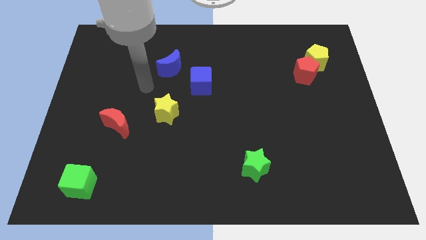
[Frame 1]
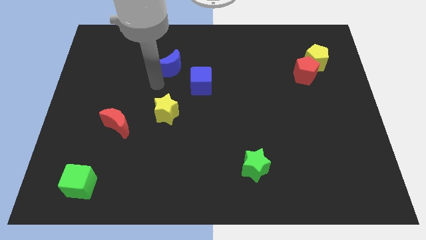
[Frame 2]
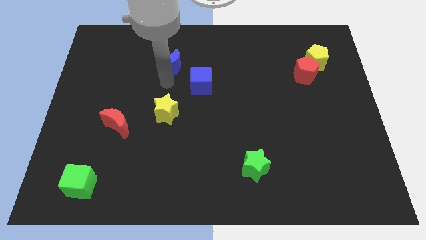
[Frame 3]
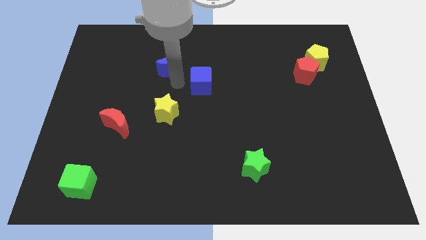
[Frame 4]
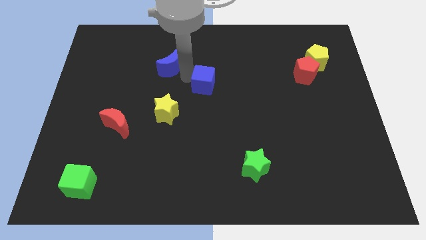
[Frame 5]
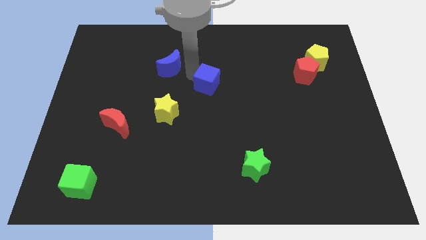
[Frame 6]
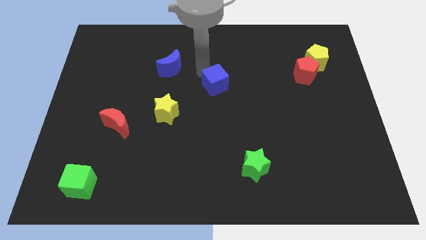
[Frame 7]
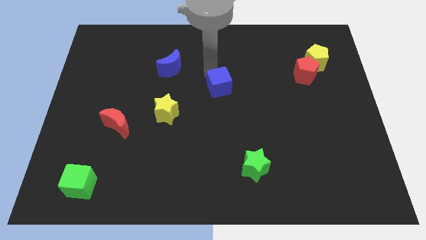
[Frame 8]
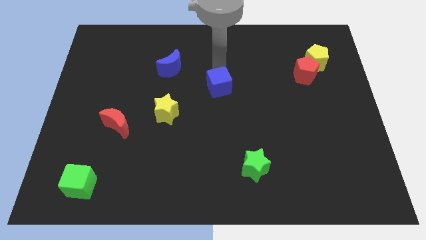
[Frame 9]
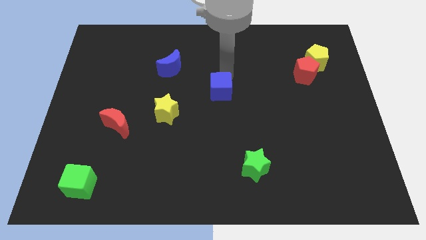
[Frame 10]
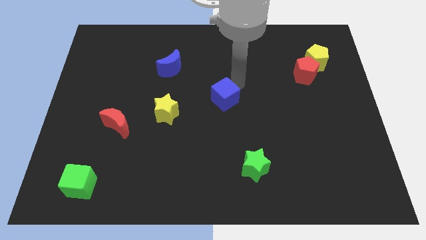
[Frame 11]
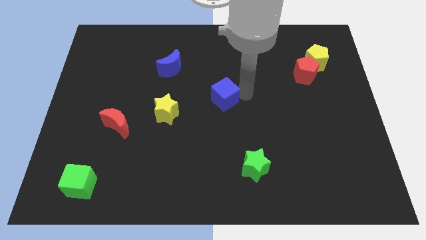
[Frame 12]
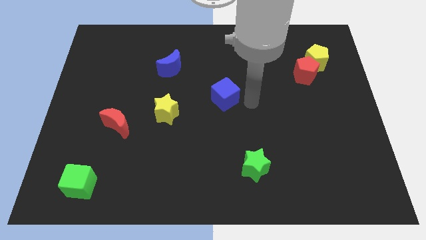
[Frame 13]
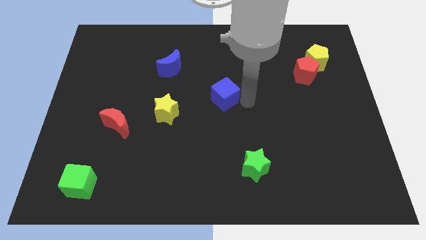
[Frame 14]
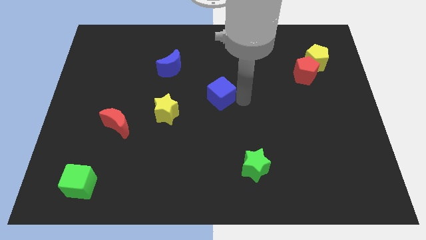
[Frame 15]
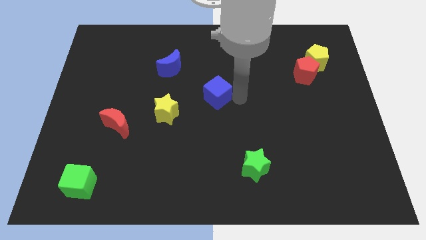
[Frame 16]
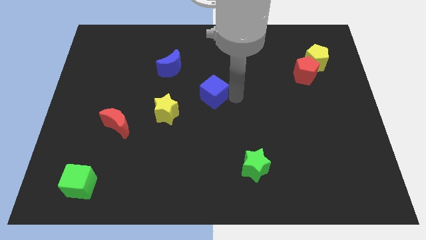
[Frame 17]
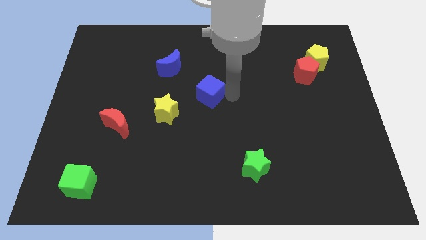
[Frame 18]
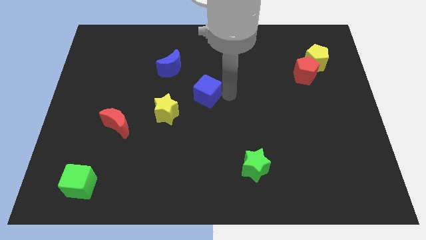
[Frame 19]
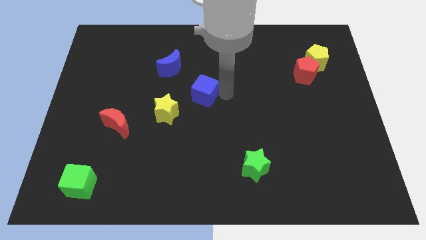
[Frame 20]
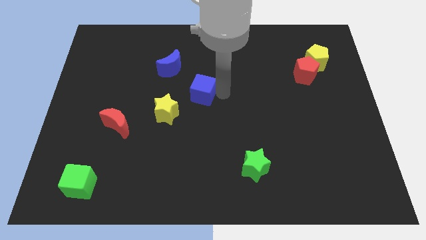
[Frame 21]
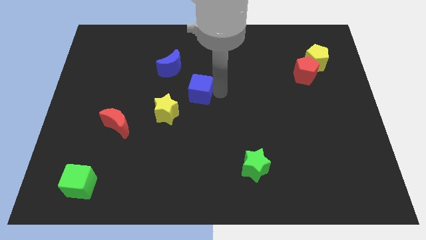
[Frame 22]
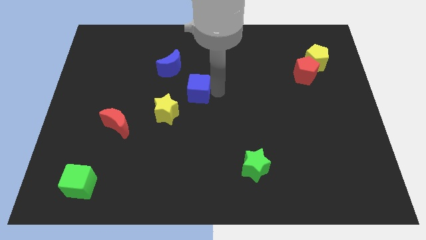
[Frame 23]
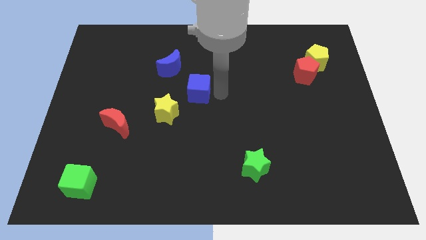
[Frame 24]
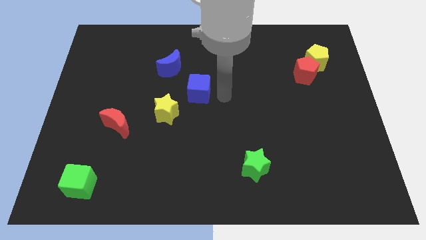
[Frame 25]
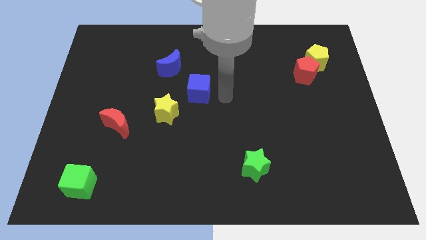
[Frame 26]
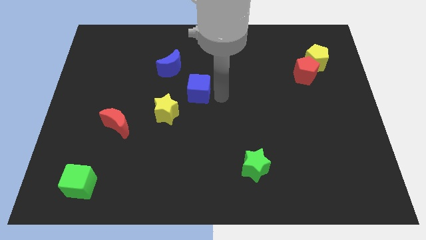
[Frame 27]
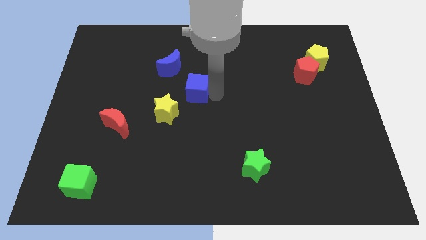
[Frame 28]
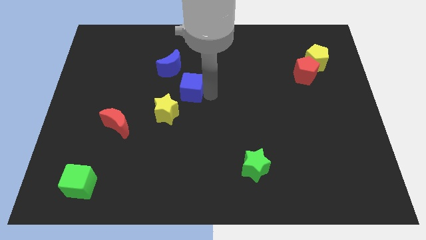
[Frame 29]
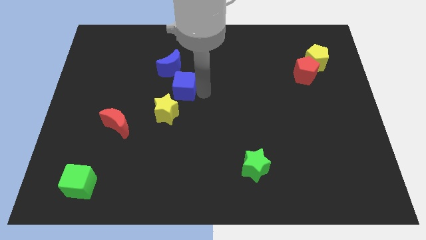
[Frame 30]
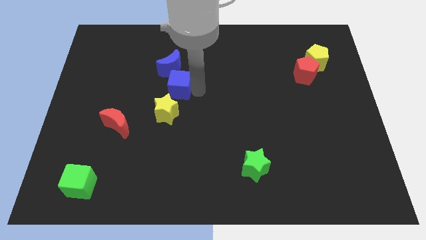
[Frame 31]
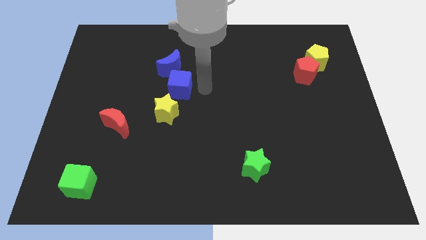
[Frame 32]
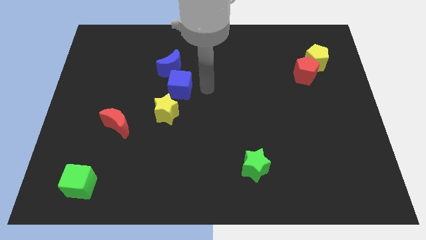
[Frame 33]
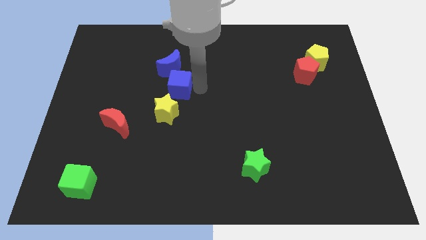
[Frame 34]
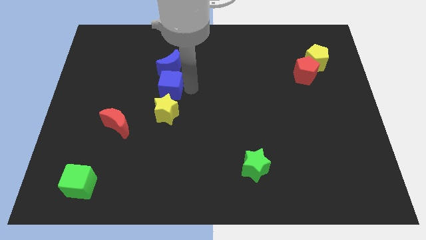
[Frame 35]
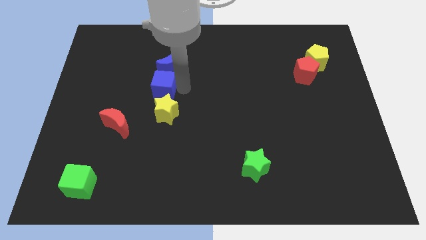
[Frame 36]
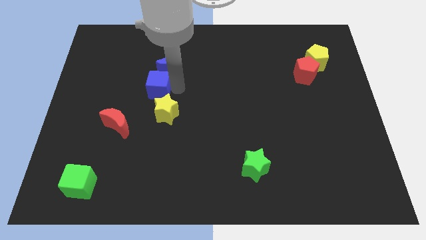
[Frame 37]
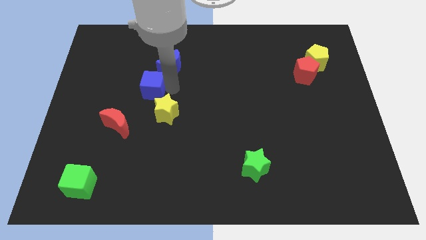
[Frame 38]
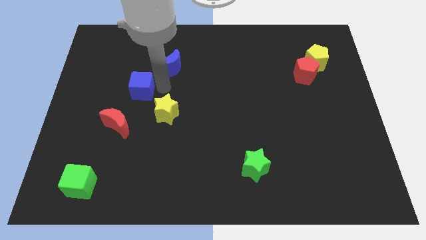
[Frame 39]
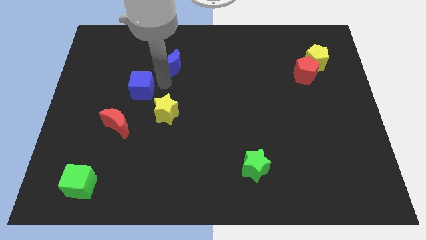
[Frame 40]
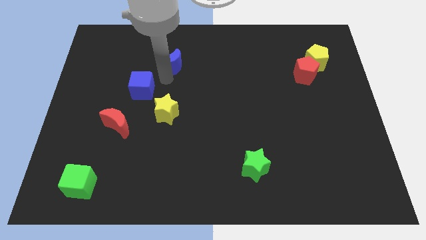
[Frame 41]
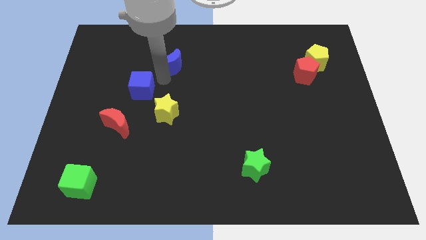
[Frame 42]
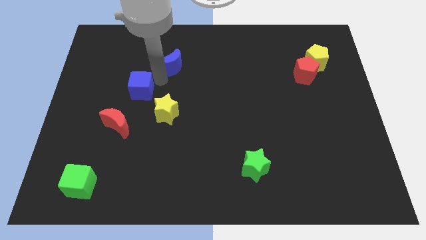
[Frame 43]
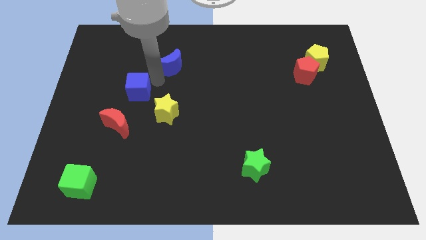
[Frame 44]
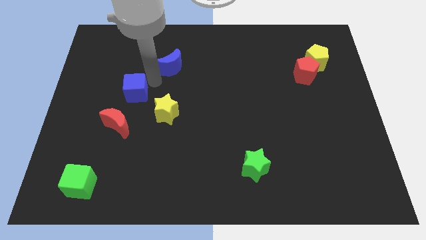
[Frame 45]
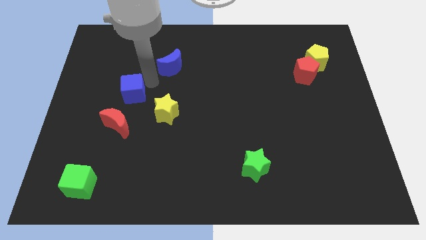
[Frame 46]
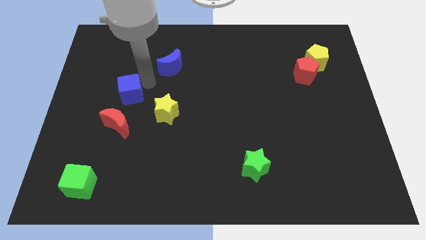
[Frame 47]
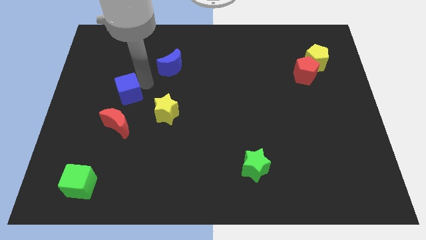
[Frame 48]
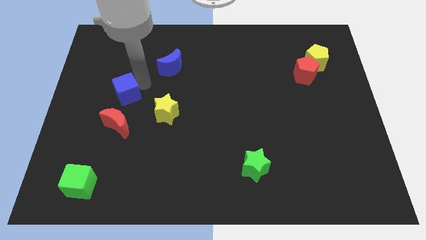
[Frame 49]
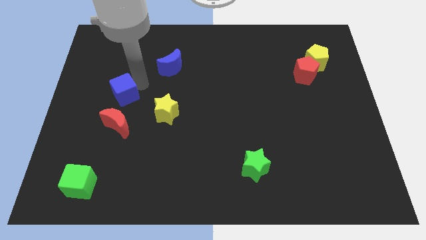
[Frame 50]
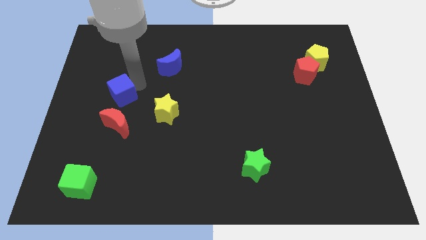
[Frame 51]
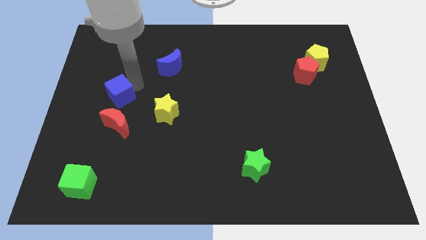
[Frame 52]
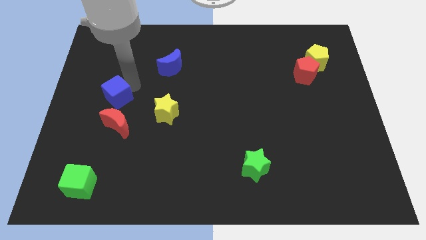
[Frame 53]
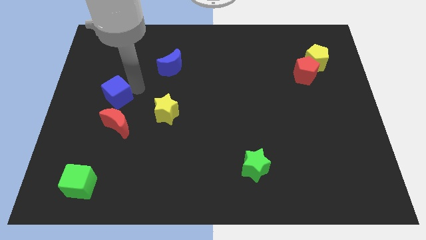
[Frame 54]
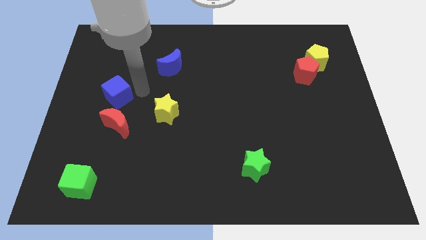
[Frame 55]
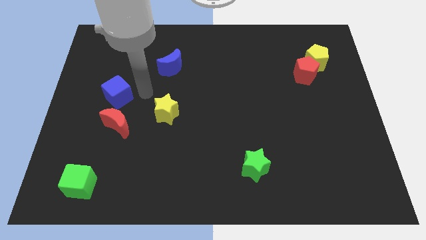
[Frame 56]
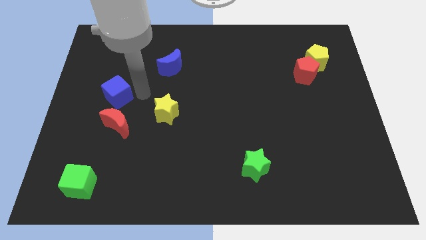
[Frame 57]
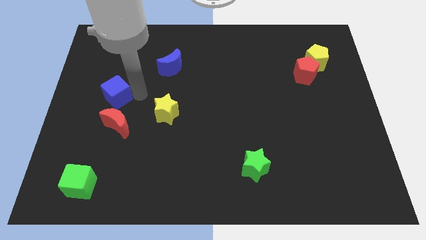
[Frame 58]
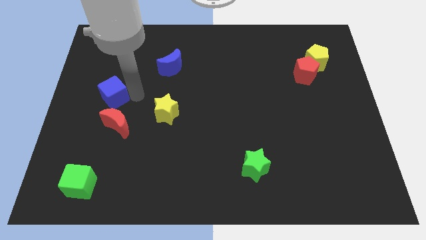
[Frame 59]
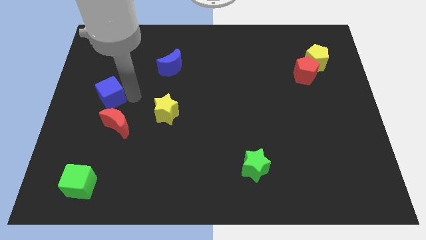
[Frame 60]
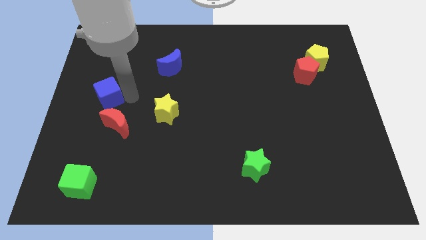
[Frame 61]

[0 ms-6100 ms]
put the blue cube to the left side of the board

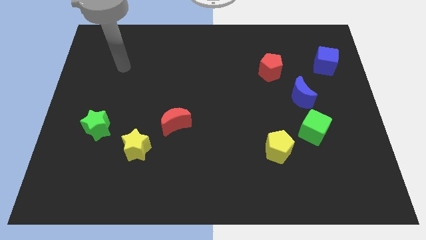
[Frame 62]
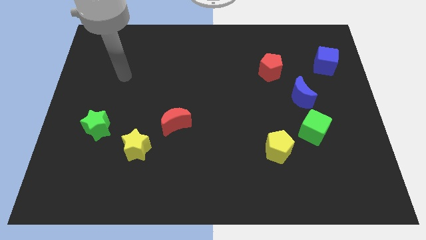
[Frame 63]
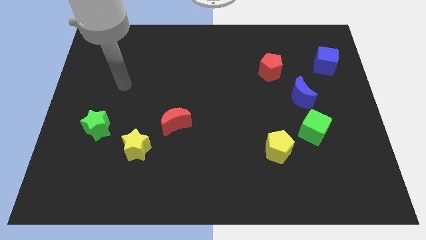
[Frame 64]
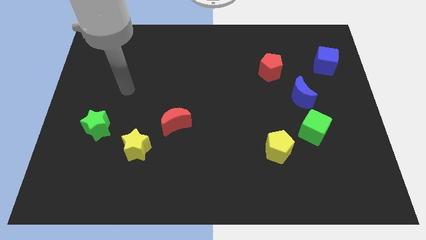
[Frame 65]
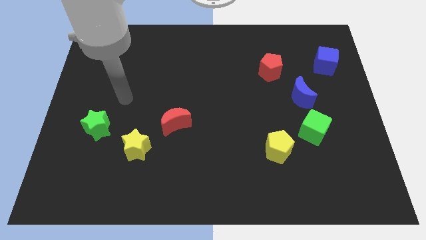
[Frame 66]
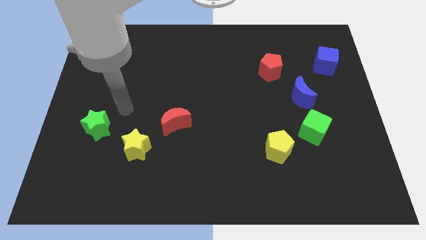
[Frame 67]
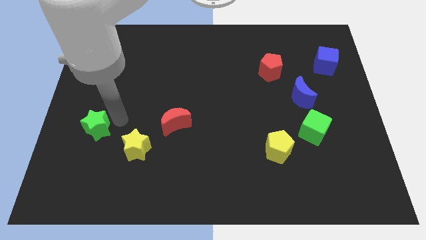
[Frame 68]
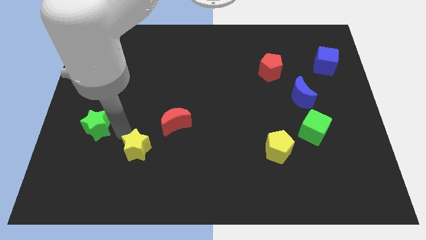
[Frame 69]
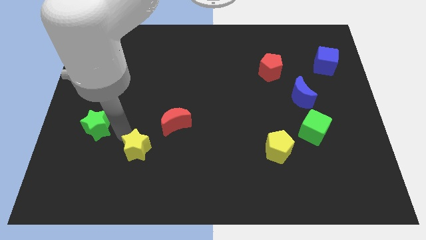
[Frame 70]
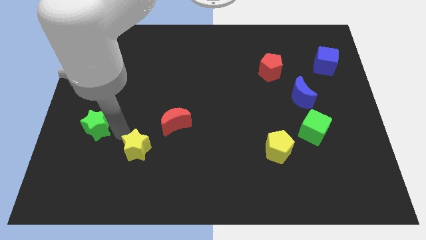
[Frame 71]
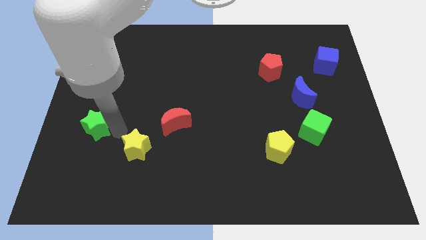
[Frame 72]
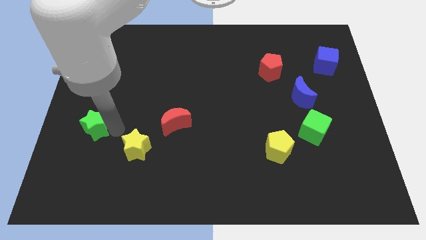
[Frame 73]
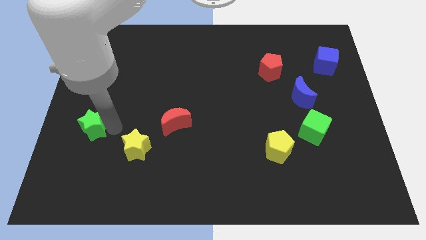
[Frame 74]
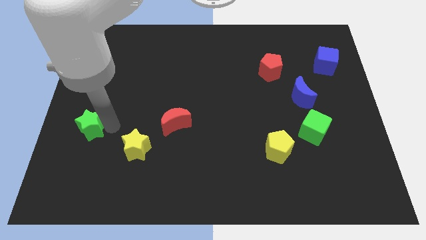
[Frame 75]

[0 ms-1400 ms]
slide the green star to the left side
